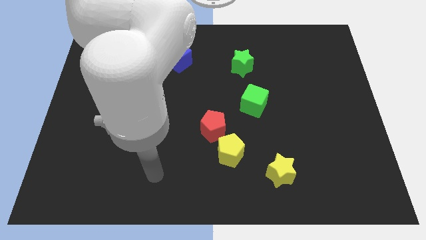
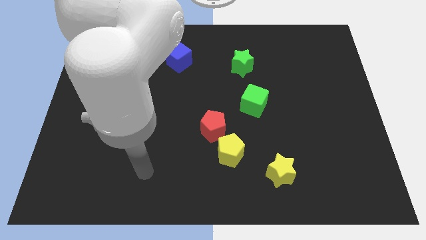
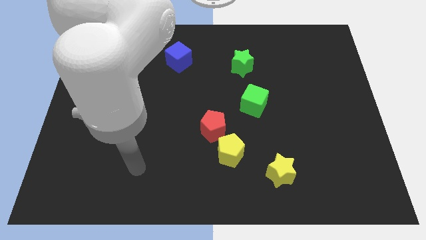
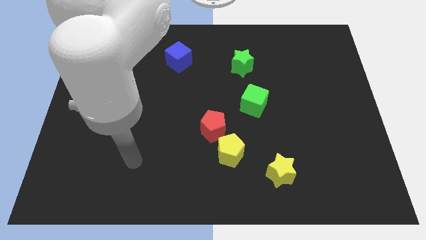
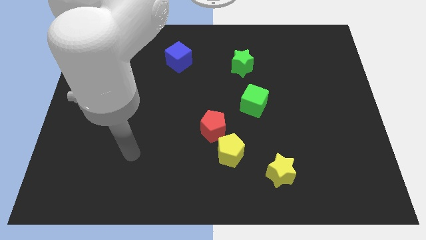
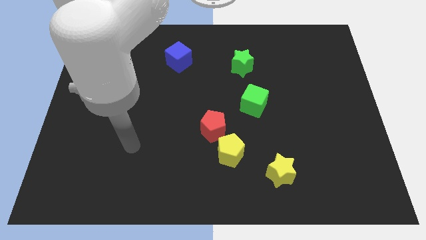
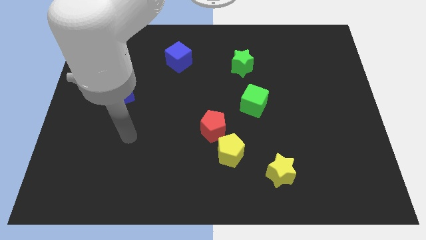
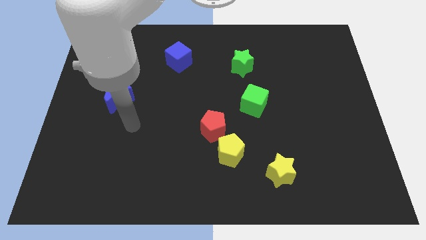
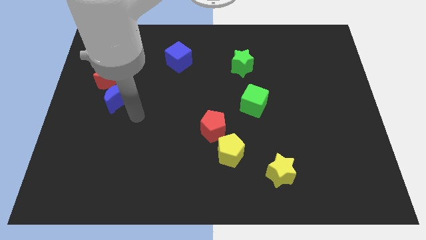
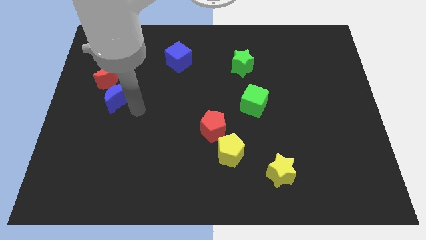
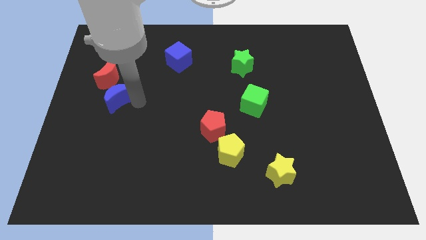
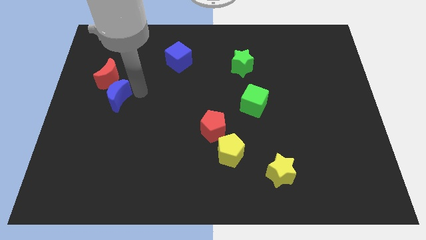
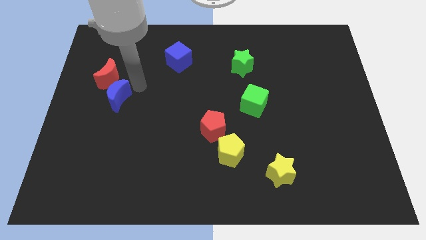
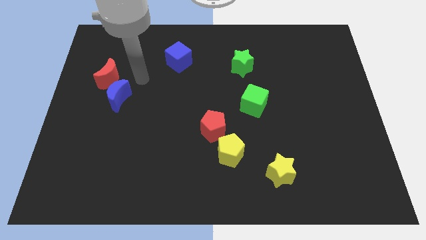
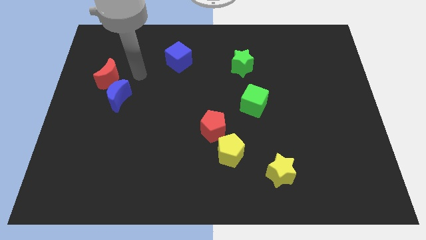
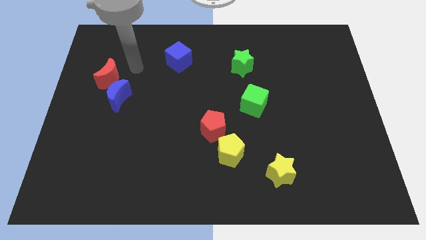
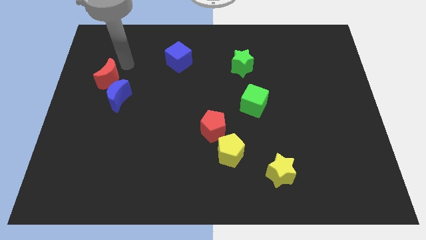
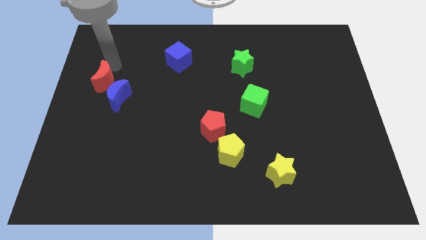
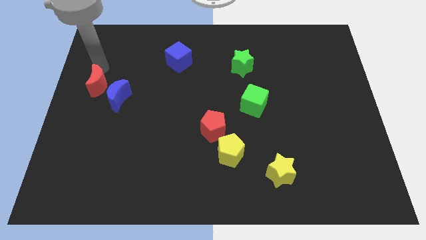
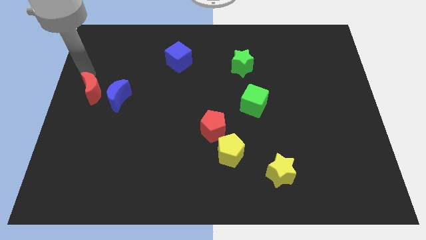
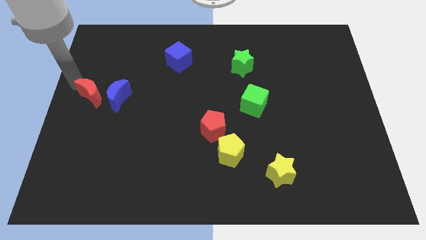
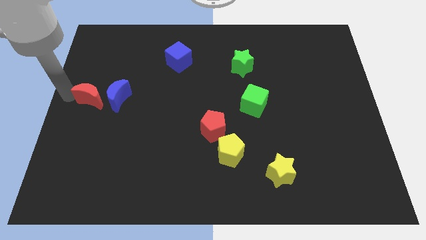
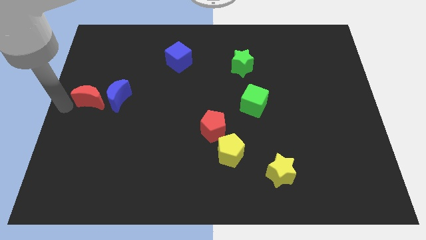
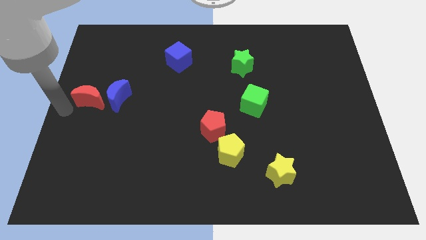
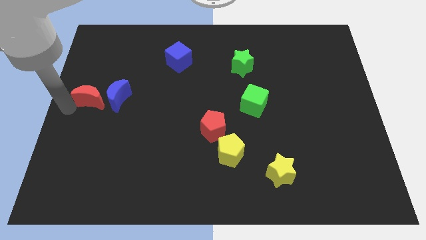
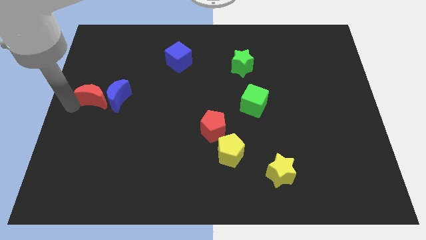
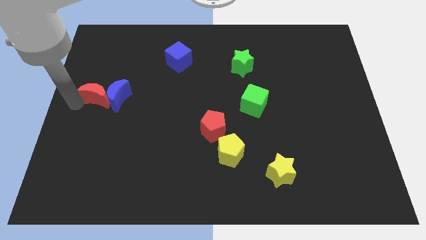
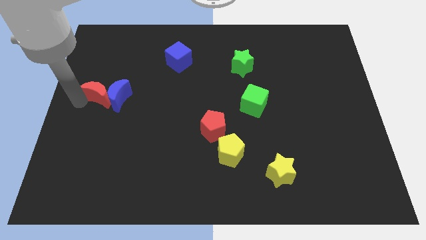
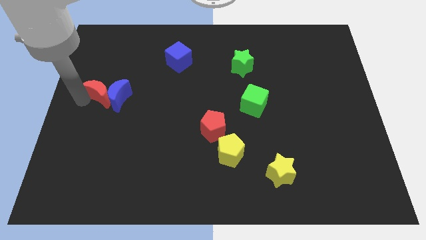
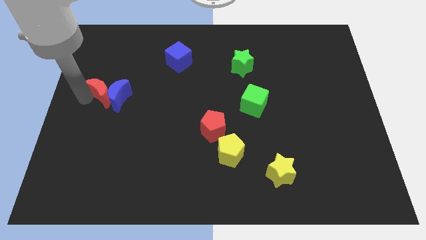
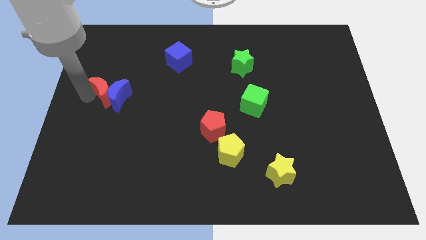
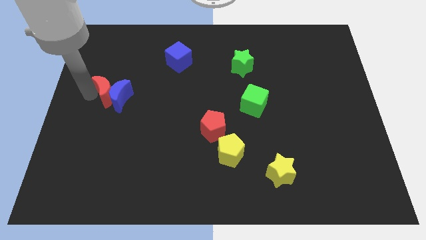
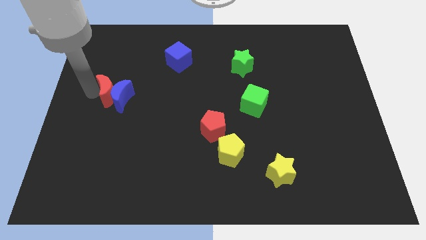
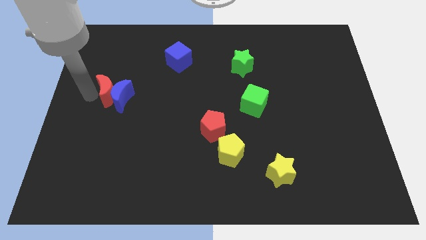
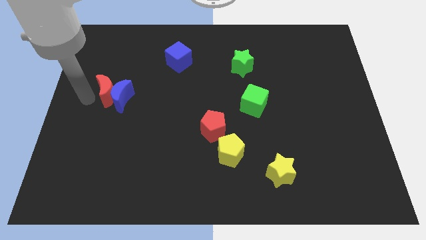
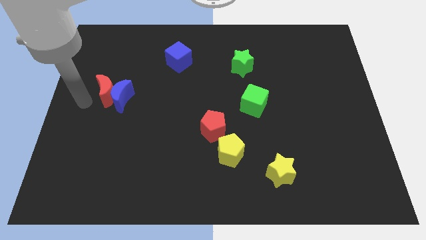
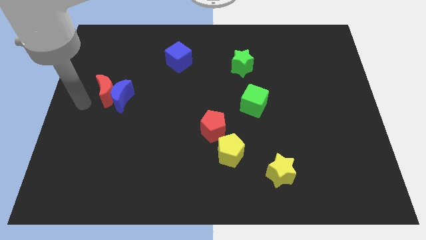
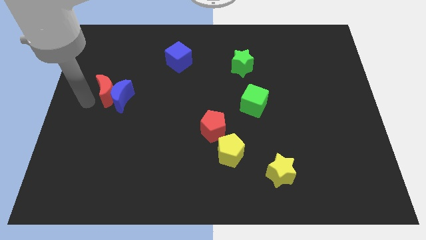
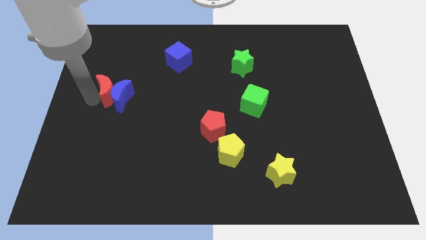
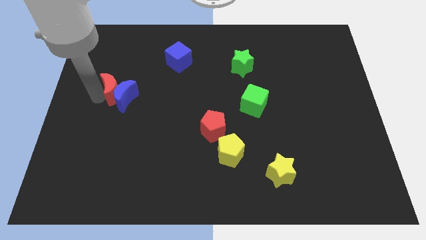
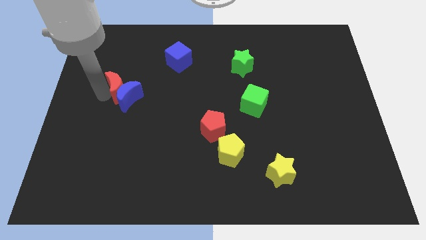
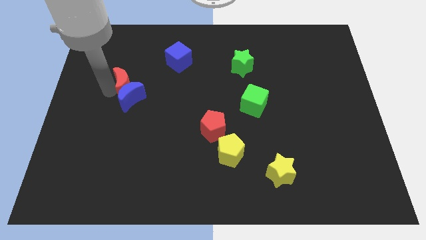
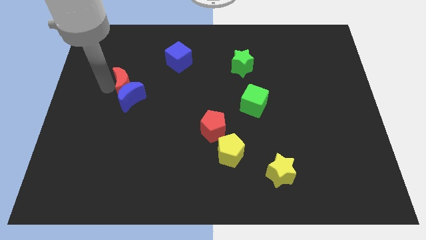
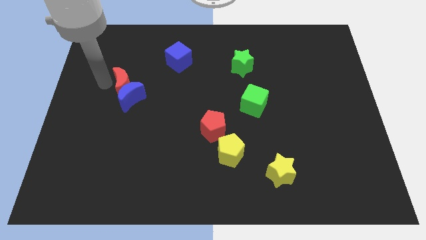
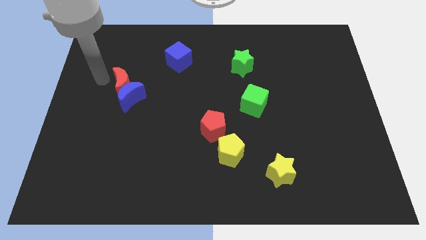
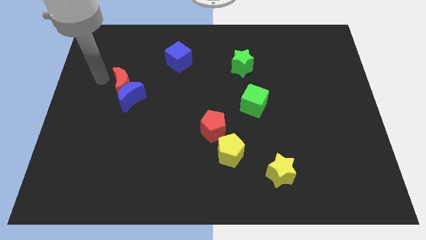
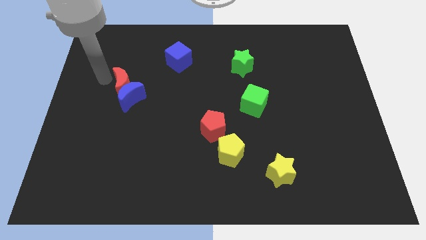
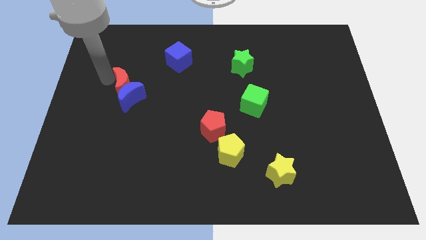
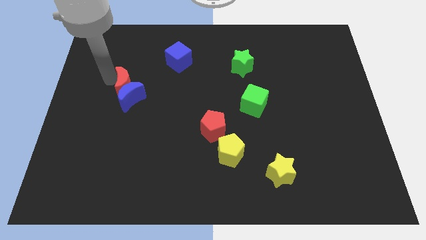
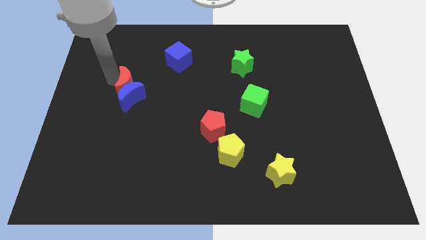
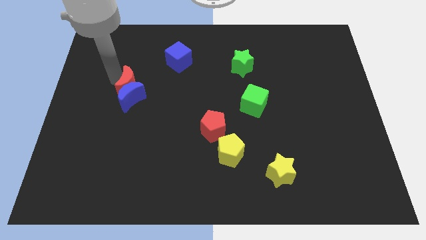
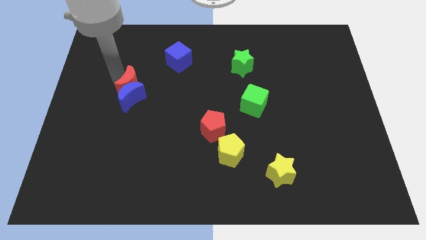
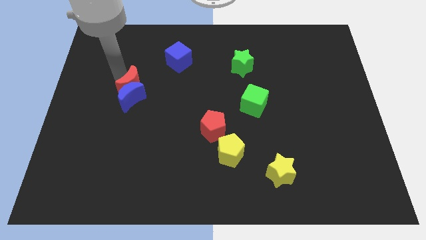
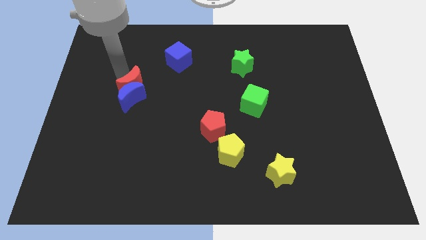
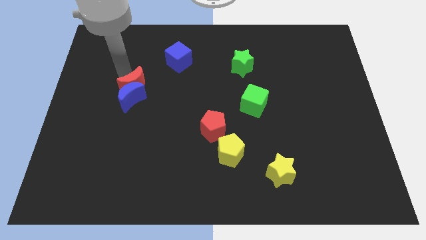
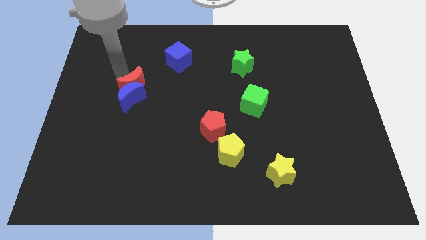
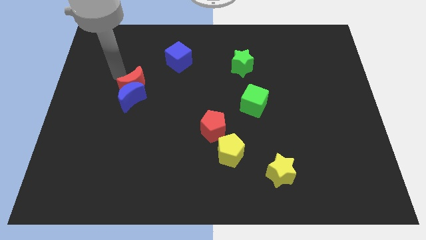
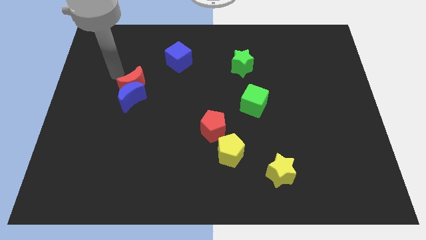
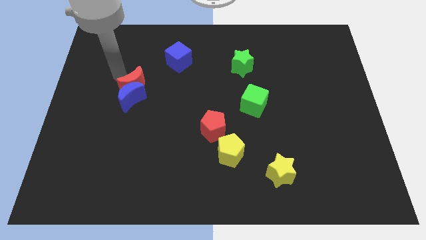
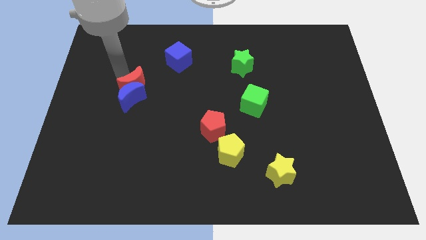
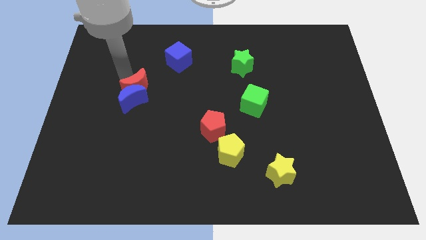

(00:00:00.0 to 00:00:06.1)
slightly push the red moon down and to the right diagonally

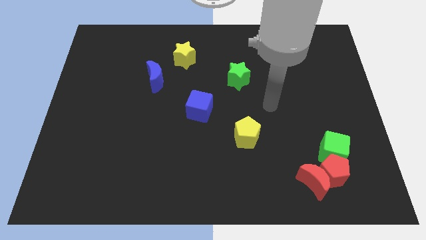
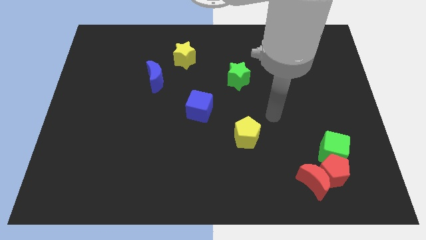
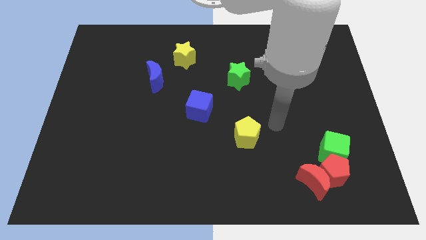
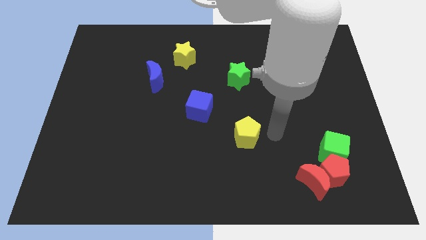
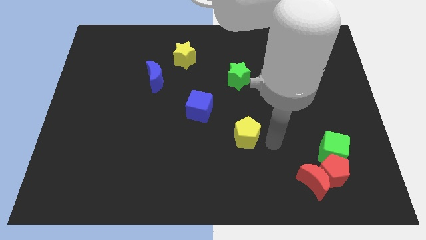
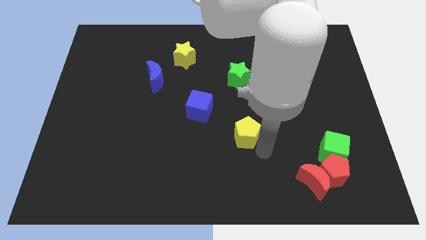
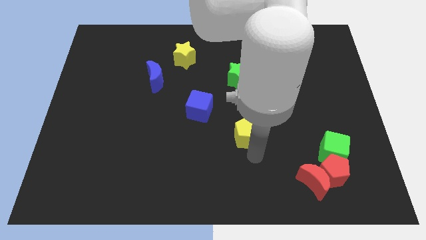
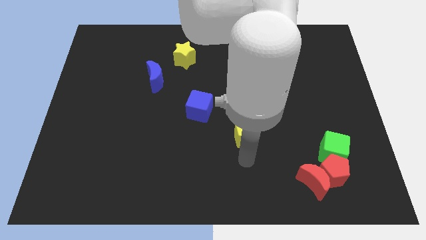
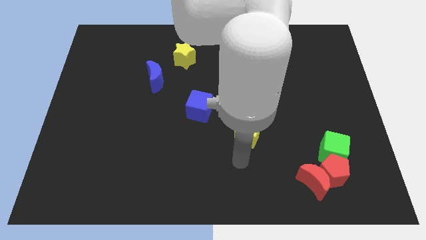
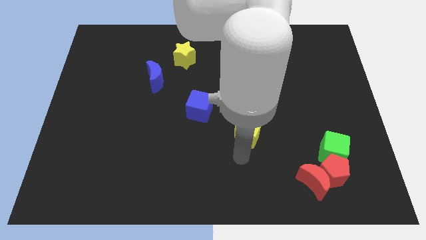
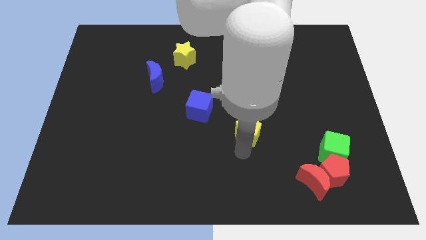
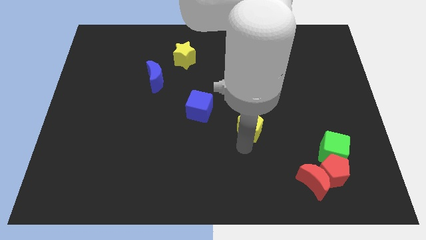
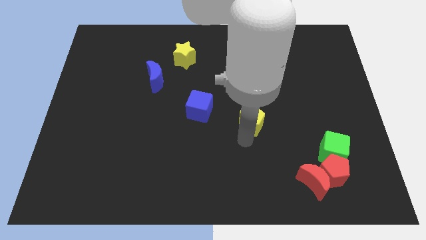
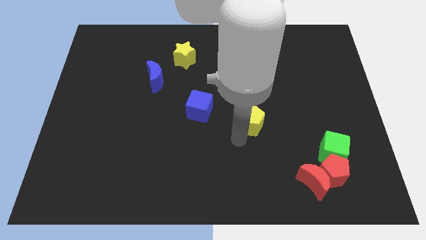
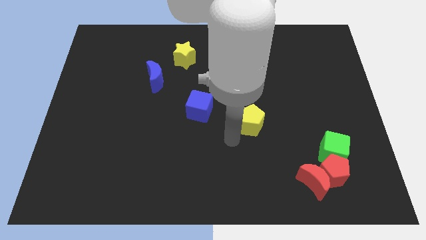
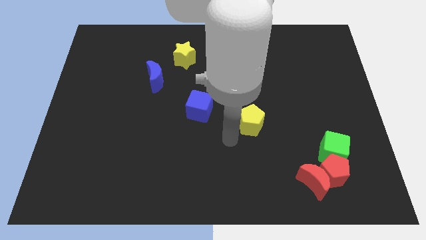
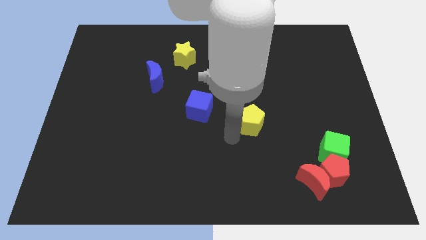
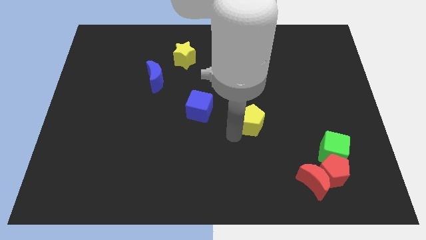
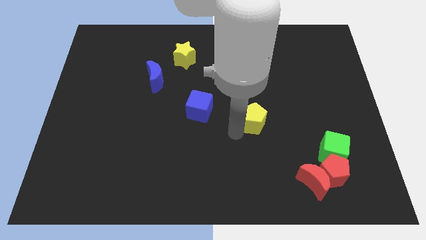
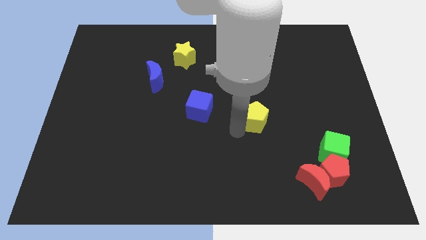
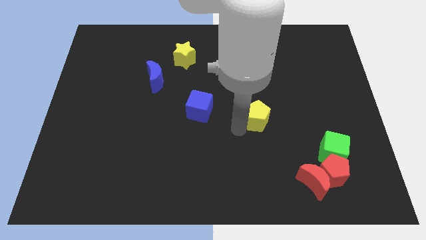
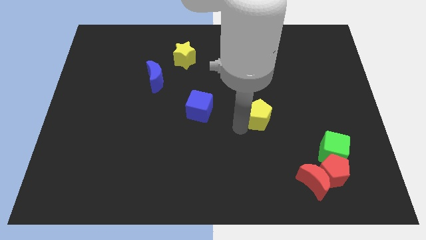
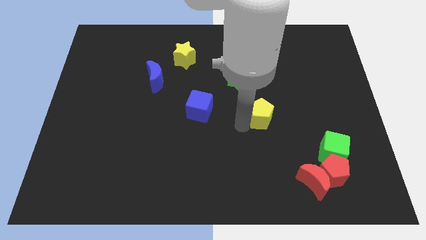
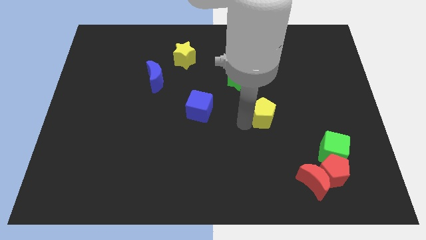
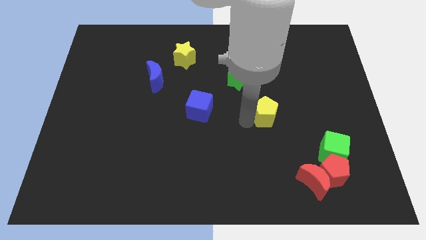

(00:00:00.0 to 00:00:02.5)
slightly slide the yellow pentagon up and to the right diagonally
